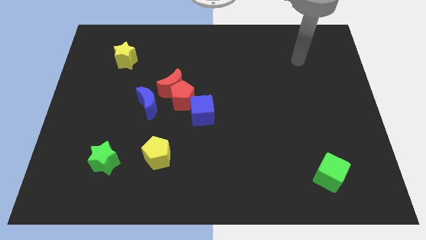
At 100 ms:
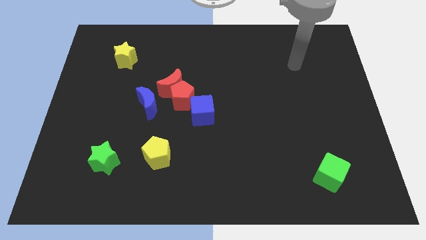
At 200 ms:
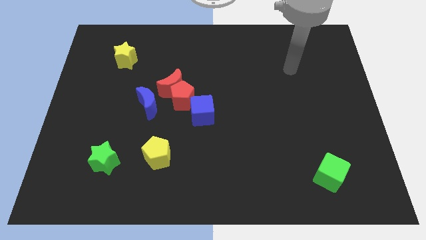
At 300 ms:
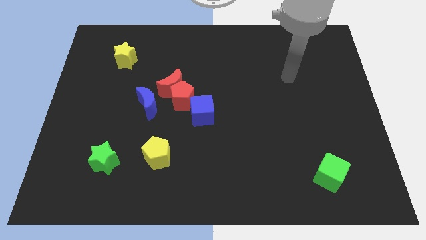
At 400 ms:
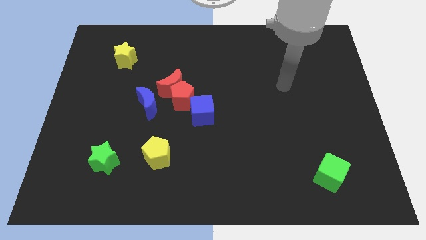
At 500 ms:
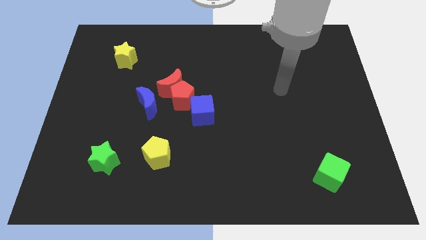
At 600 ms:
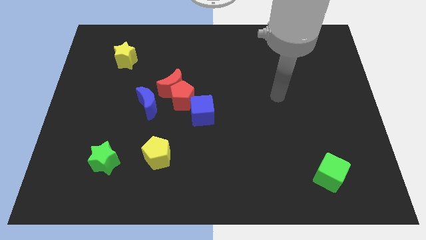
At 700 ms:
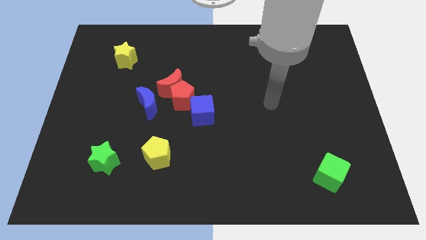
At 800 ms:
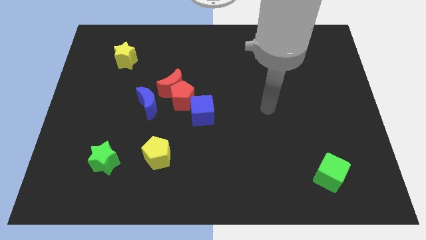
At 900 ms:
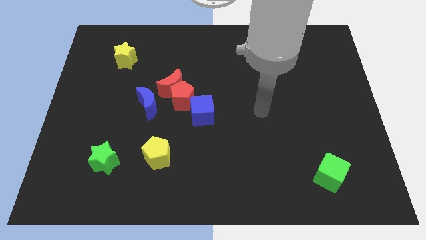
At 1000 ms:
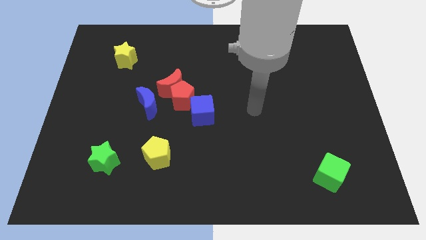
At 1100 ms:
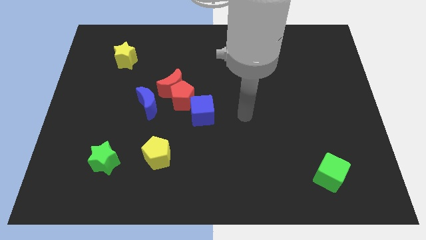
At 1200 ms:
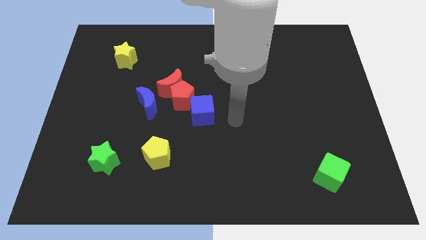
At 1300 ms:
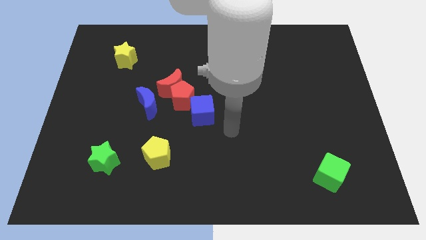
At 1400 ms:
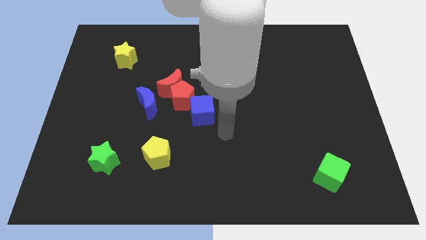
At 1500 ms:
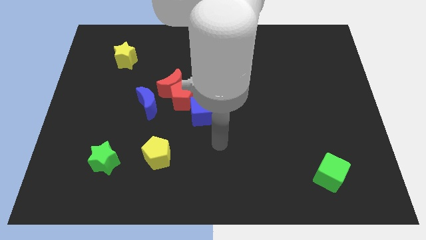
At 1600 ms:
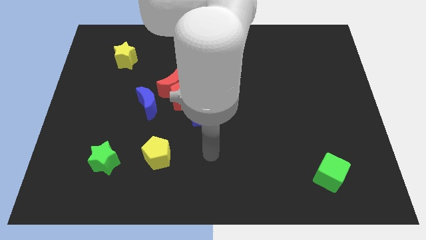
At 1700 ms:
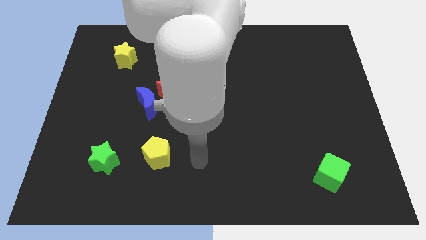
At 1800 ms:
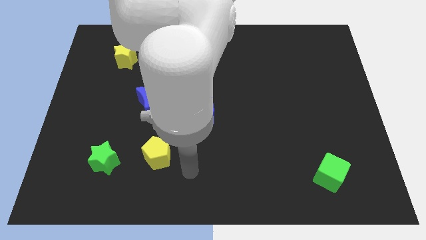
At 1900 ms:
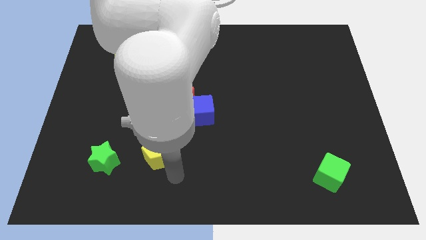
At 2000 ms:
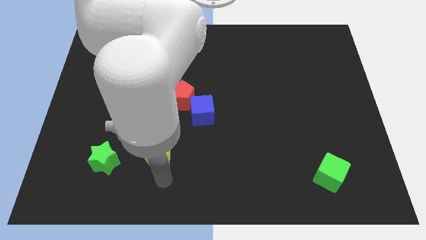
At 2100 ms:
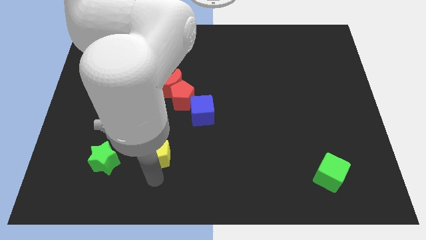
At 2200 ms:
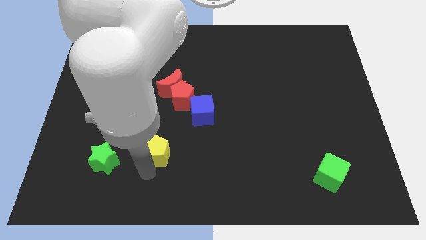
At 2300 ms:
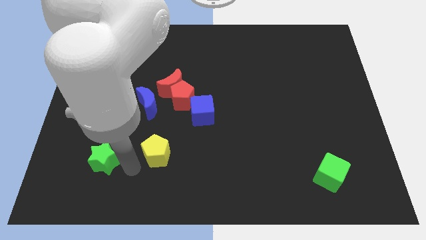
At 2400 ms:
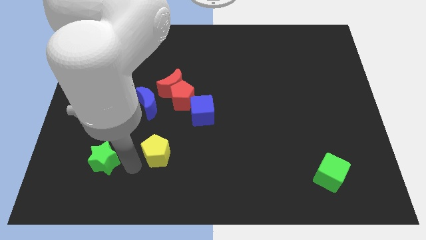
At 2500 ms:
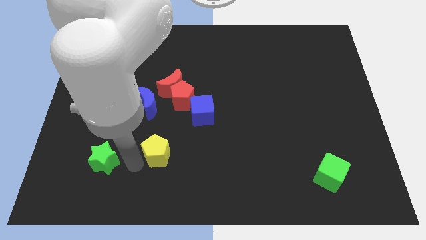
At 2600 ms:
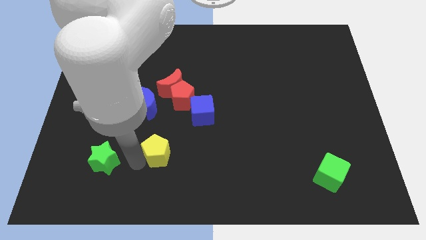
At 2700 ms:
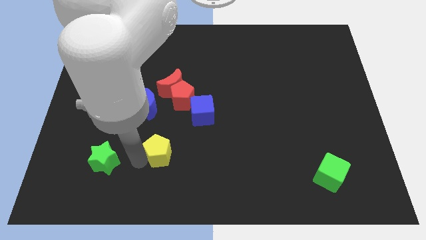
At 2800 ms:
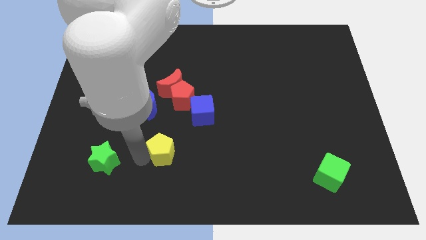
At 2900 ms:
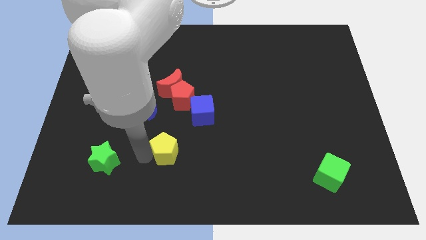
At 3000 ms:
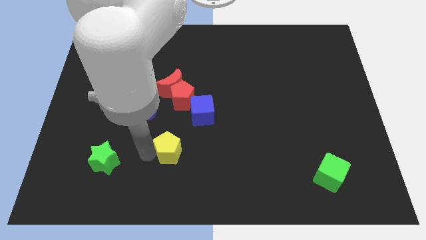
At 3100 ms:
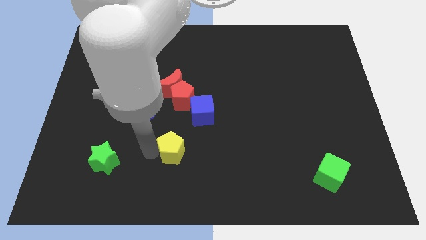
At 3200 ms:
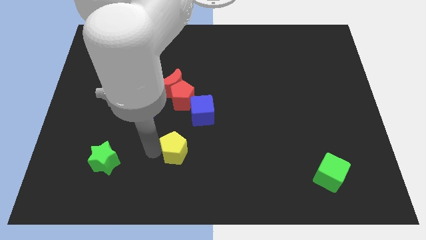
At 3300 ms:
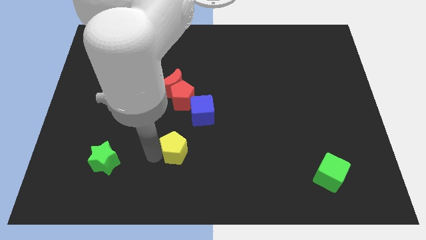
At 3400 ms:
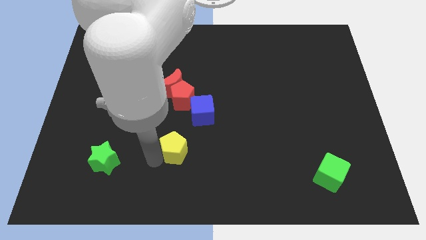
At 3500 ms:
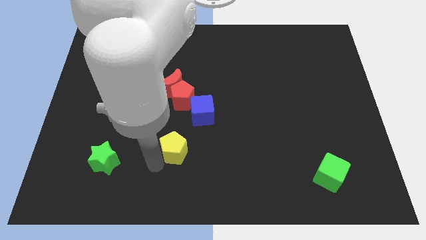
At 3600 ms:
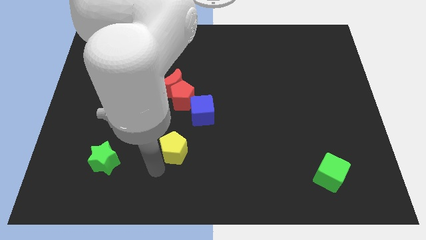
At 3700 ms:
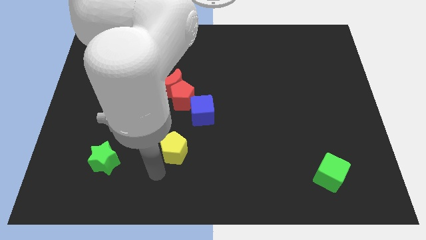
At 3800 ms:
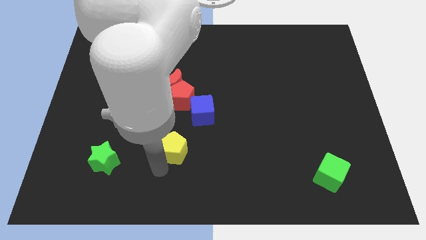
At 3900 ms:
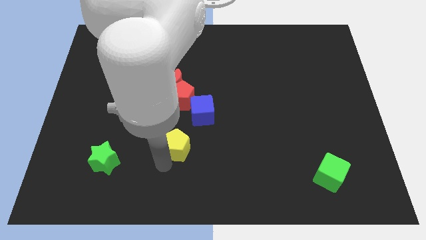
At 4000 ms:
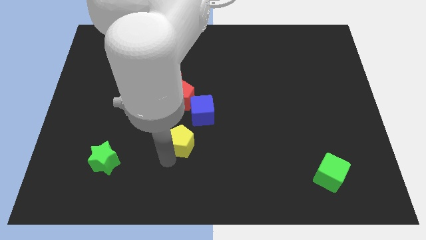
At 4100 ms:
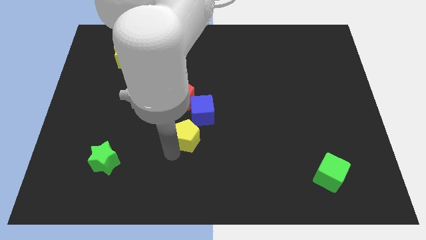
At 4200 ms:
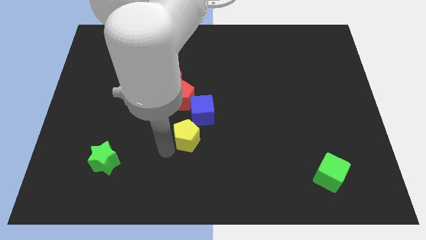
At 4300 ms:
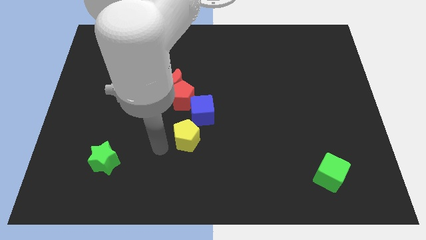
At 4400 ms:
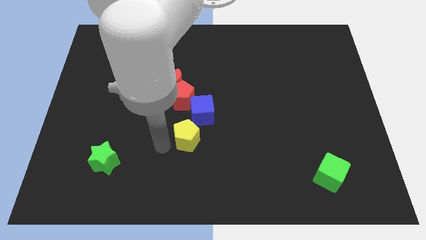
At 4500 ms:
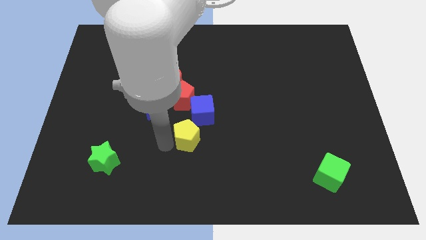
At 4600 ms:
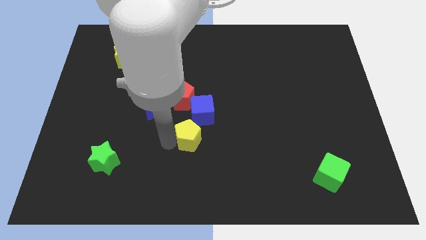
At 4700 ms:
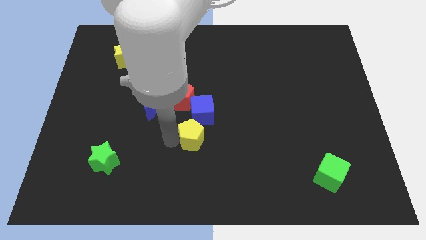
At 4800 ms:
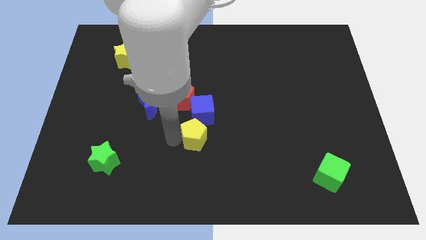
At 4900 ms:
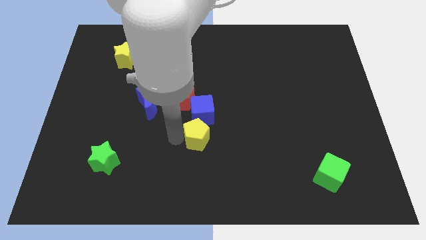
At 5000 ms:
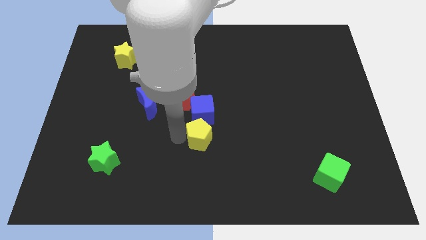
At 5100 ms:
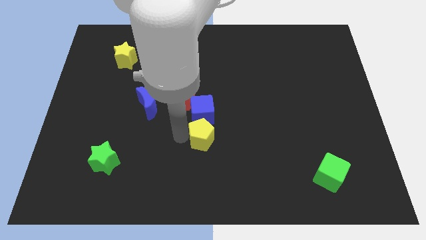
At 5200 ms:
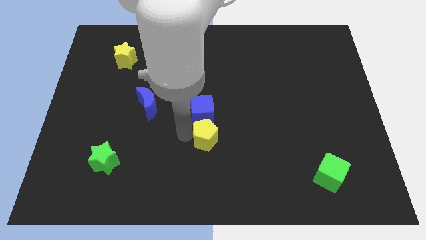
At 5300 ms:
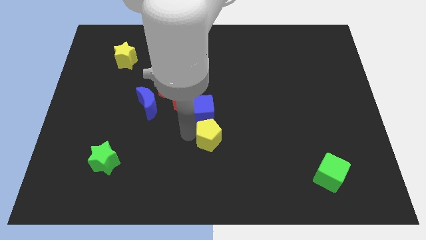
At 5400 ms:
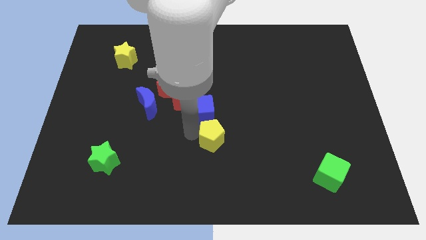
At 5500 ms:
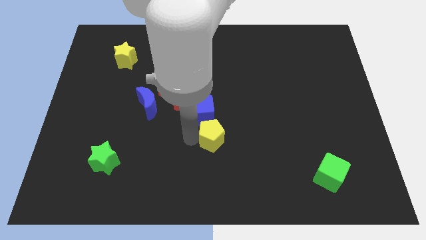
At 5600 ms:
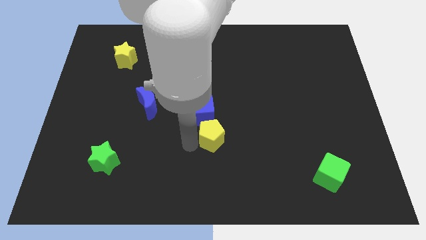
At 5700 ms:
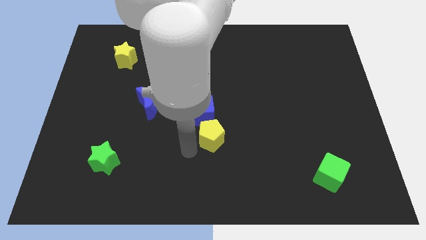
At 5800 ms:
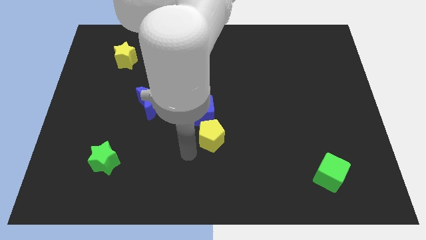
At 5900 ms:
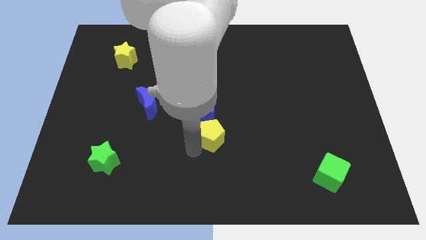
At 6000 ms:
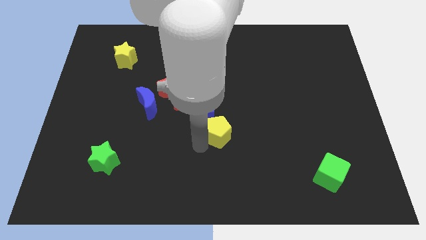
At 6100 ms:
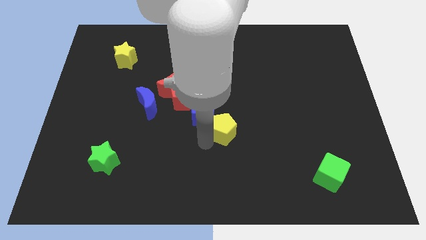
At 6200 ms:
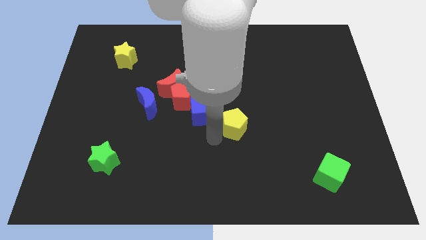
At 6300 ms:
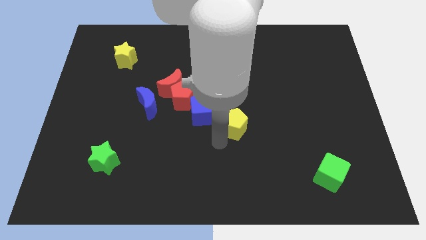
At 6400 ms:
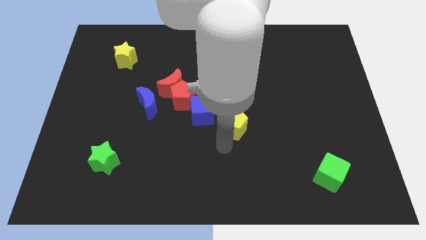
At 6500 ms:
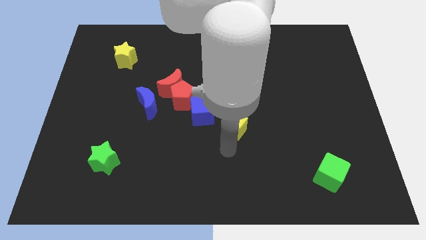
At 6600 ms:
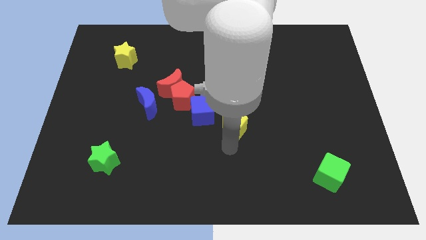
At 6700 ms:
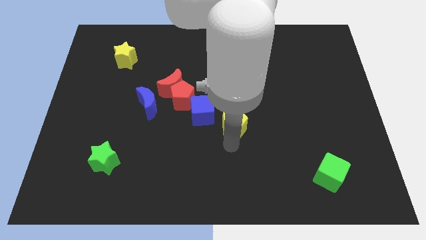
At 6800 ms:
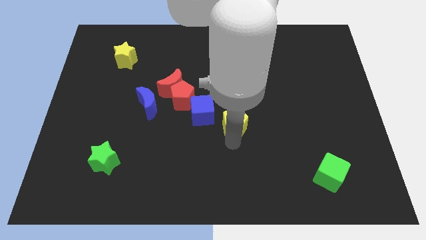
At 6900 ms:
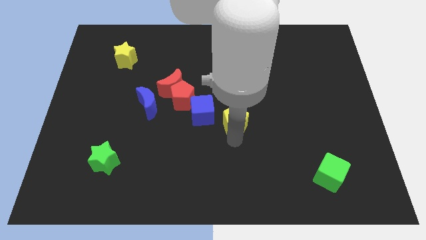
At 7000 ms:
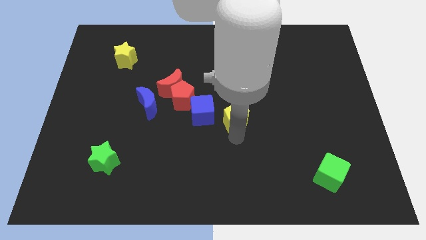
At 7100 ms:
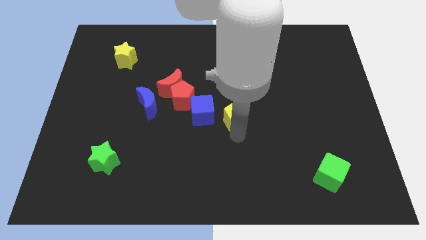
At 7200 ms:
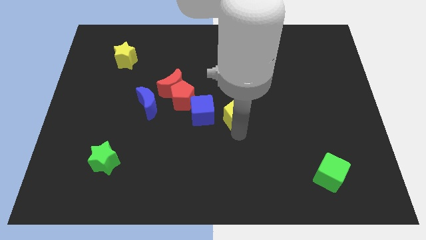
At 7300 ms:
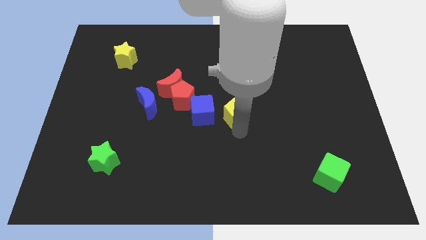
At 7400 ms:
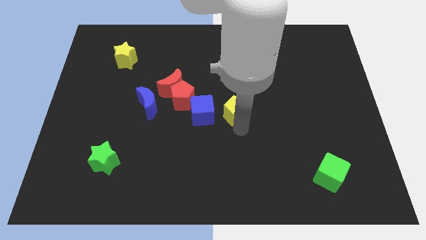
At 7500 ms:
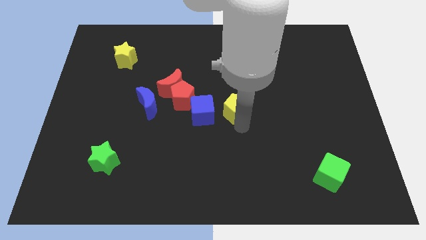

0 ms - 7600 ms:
slide the yellow pentagon upwards and right
